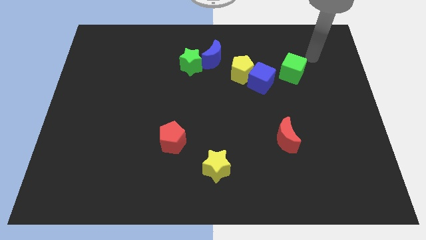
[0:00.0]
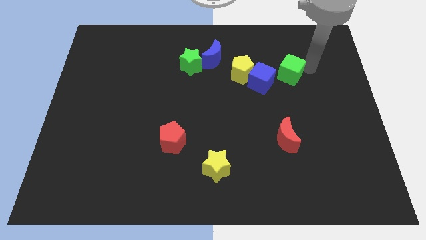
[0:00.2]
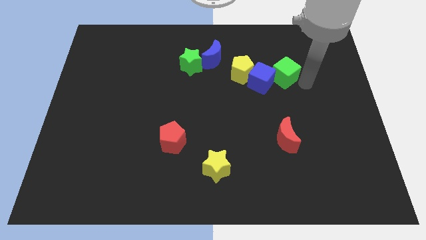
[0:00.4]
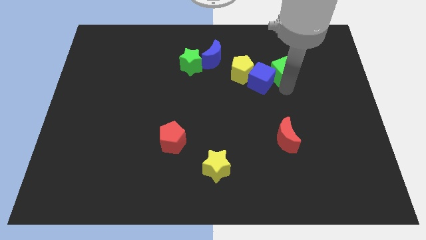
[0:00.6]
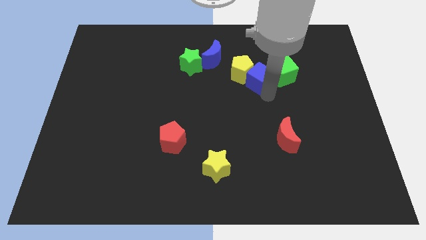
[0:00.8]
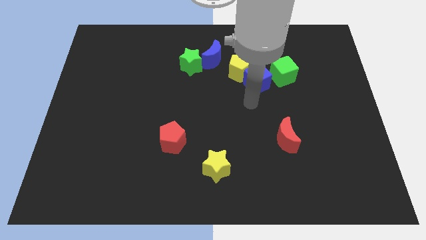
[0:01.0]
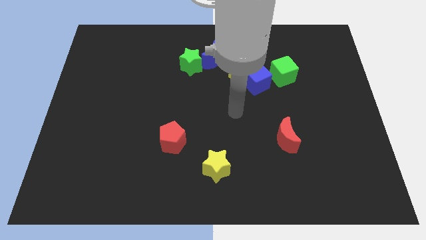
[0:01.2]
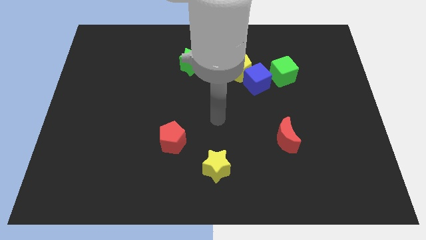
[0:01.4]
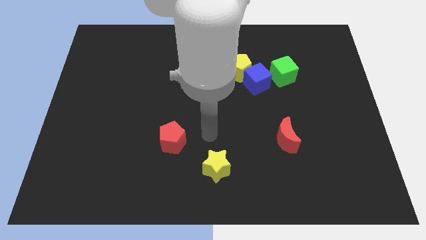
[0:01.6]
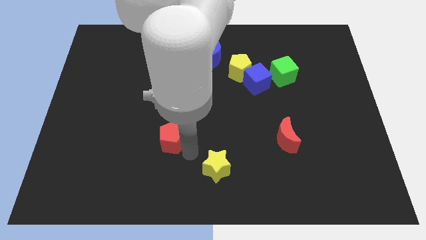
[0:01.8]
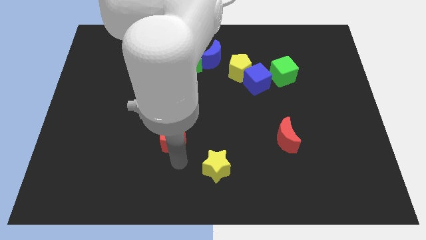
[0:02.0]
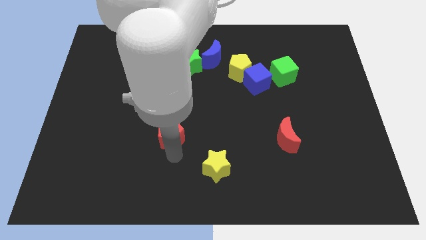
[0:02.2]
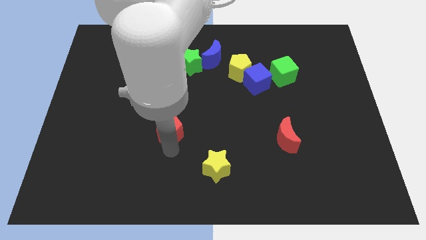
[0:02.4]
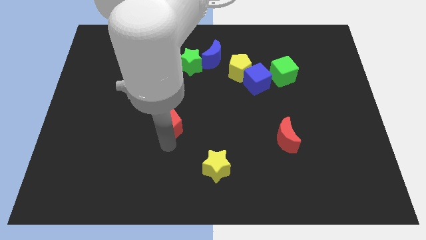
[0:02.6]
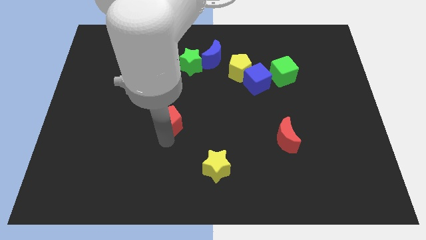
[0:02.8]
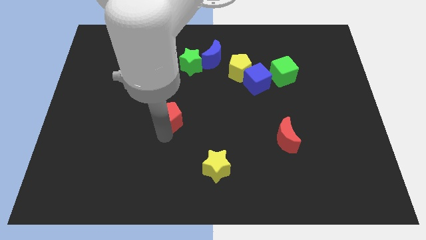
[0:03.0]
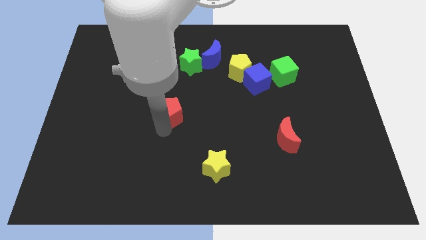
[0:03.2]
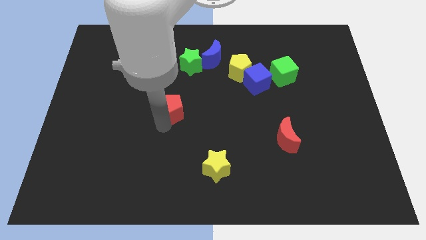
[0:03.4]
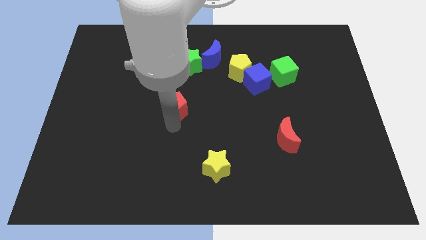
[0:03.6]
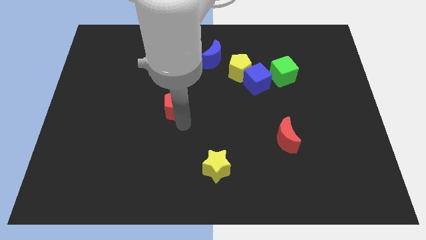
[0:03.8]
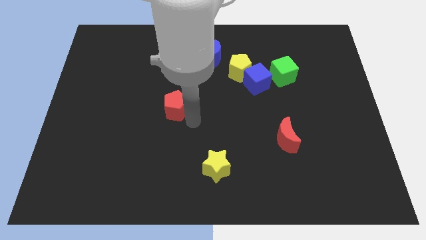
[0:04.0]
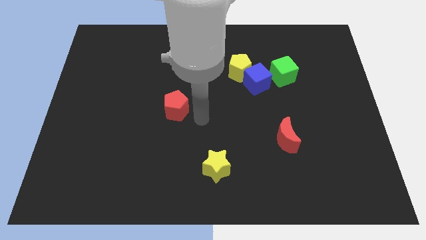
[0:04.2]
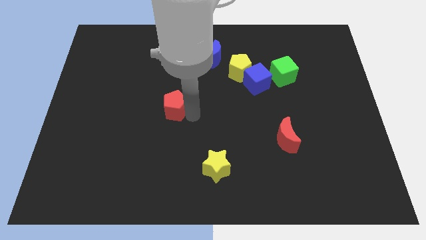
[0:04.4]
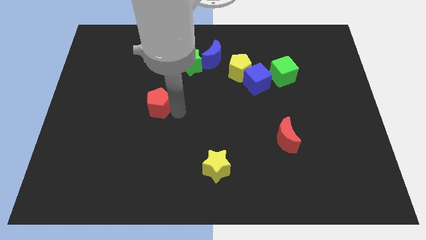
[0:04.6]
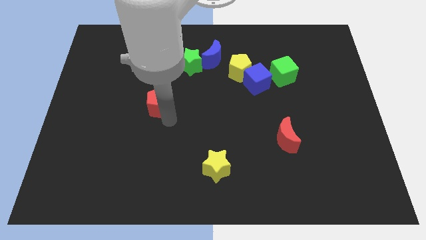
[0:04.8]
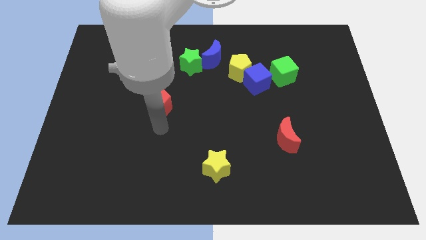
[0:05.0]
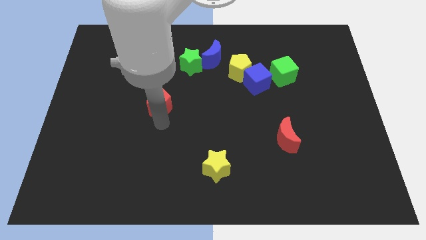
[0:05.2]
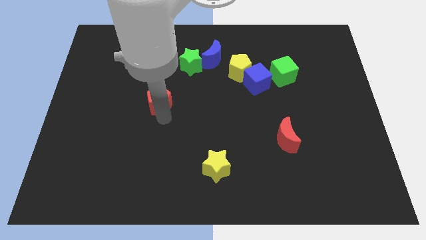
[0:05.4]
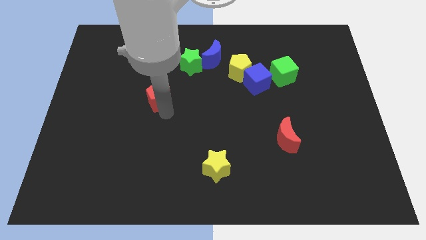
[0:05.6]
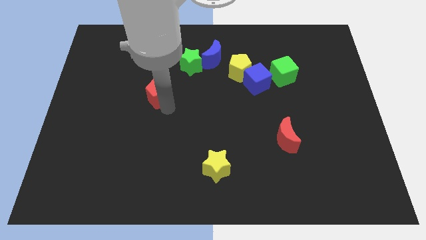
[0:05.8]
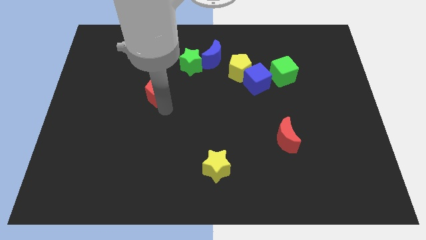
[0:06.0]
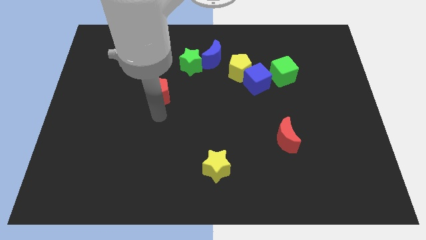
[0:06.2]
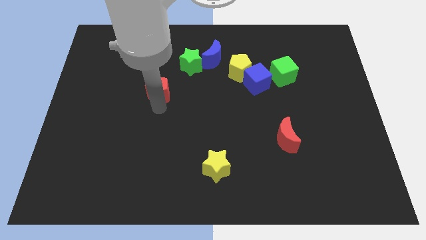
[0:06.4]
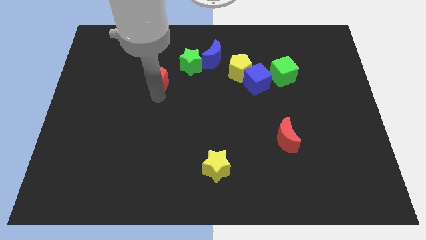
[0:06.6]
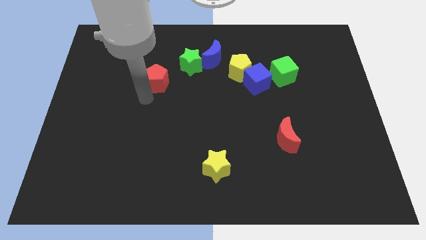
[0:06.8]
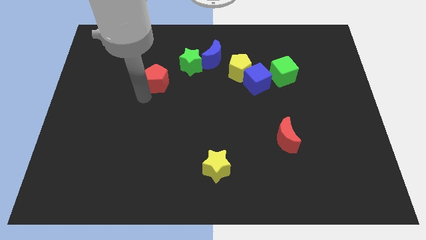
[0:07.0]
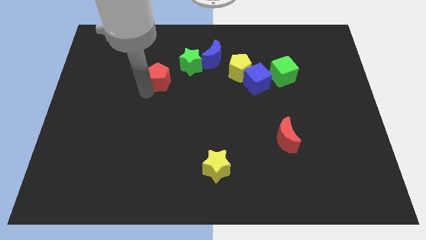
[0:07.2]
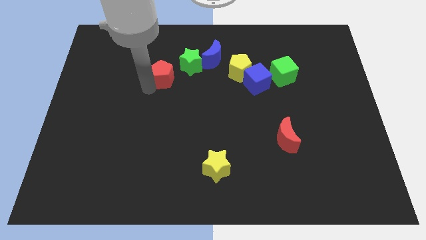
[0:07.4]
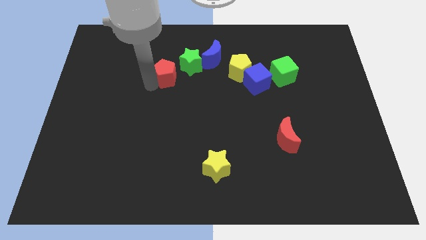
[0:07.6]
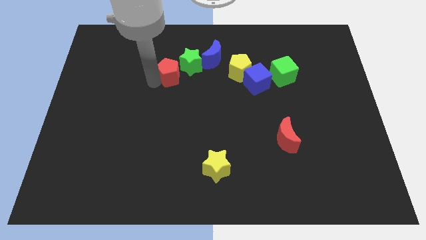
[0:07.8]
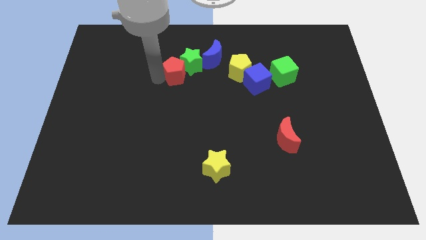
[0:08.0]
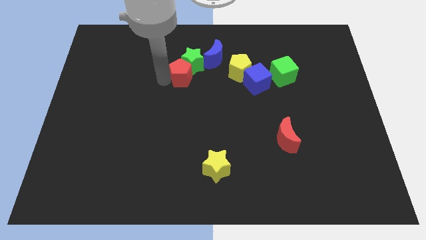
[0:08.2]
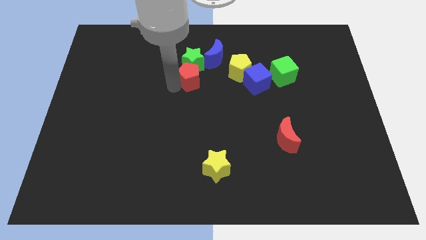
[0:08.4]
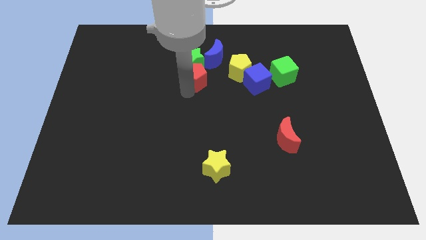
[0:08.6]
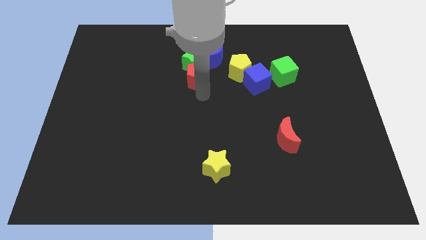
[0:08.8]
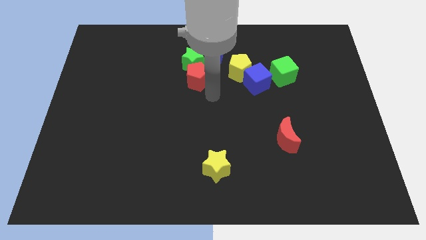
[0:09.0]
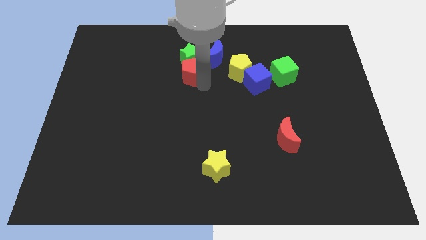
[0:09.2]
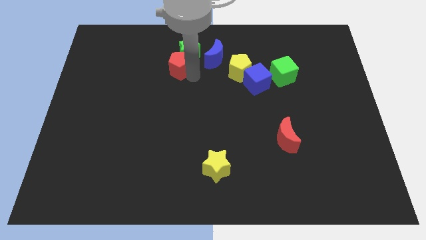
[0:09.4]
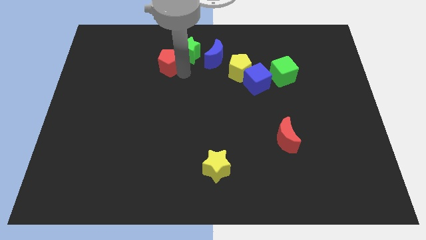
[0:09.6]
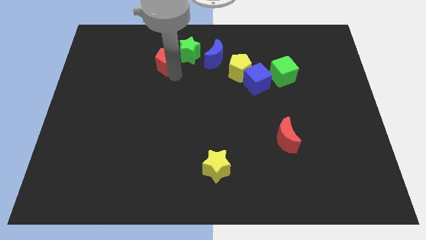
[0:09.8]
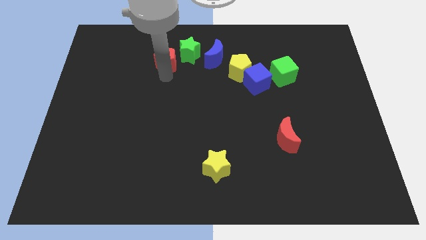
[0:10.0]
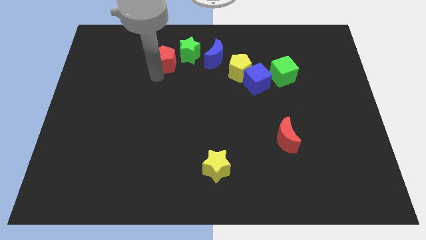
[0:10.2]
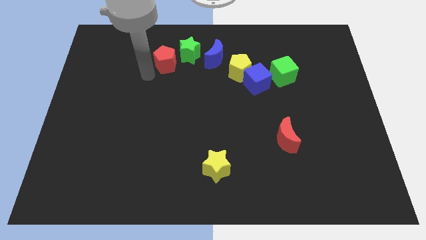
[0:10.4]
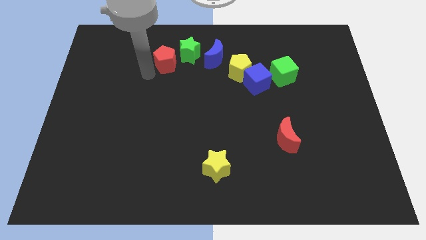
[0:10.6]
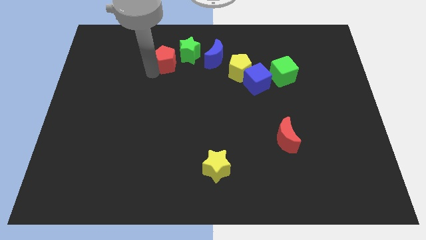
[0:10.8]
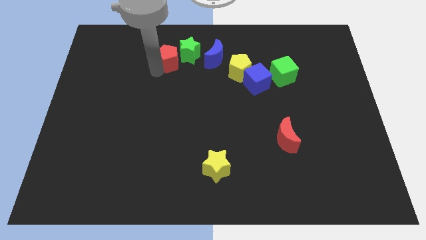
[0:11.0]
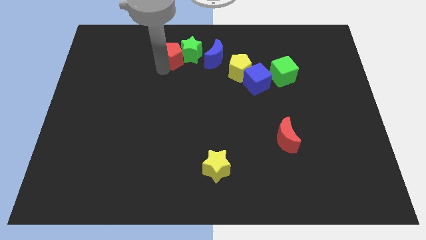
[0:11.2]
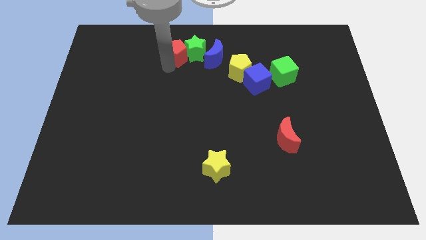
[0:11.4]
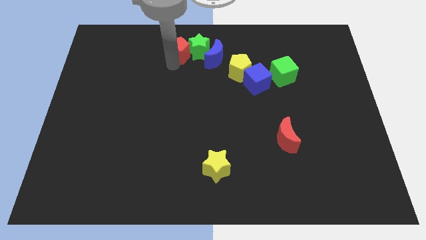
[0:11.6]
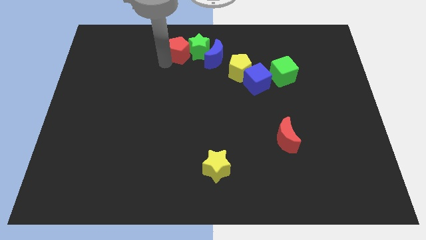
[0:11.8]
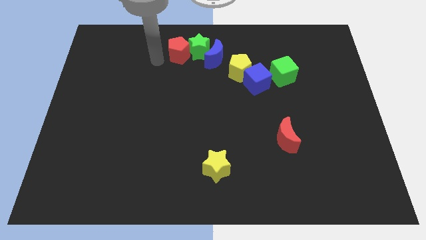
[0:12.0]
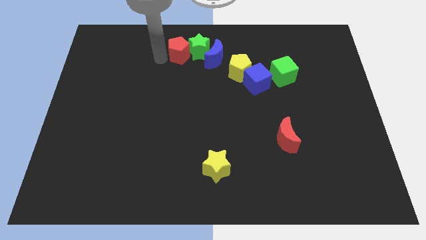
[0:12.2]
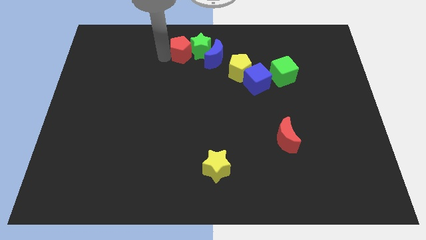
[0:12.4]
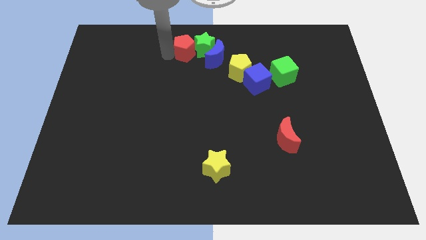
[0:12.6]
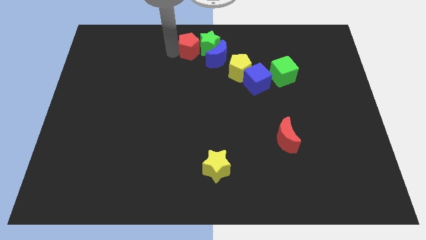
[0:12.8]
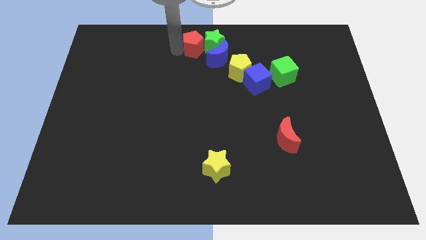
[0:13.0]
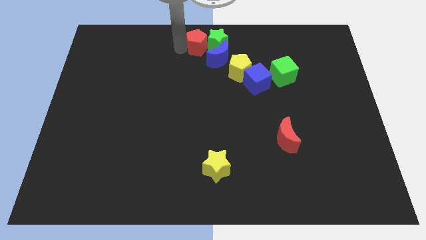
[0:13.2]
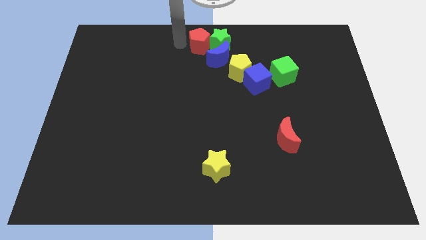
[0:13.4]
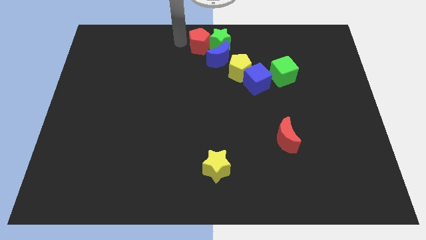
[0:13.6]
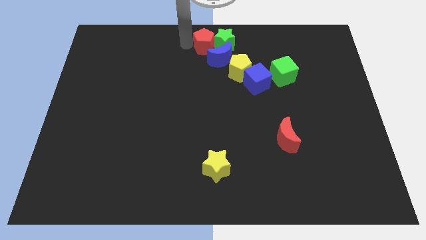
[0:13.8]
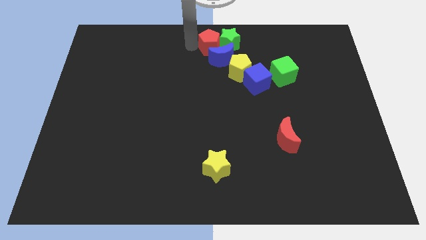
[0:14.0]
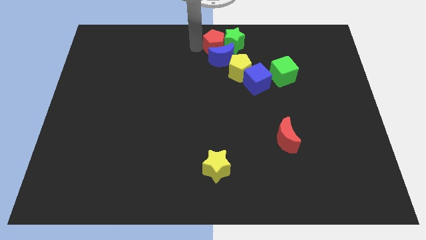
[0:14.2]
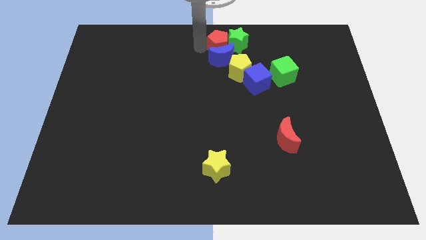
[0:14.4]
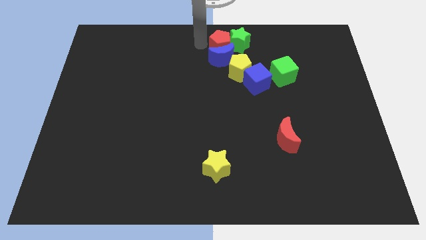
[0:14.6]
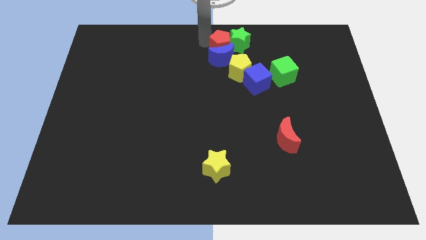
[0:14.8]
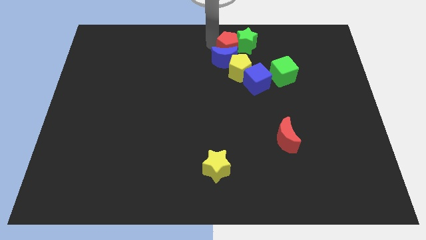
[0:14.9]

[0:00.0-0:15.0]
move the red pentagon diagonally upwards and to the right

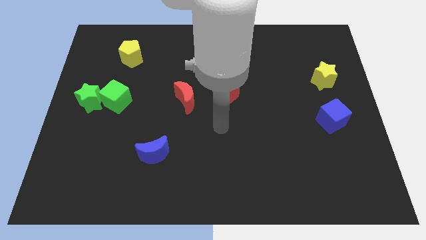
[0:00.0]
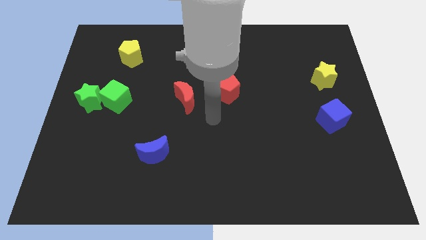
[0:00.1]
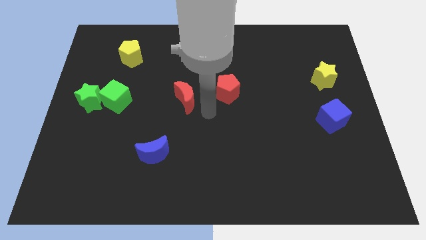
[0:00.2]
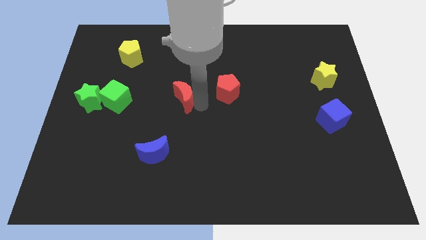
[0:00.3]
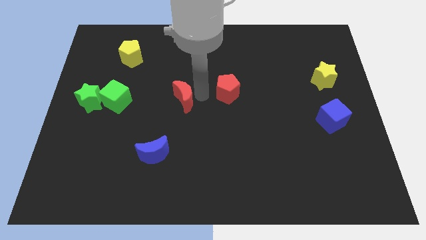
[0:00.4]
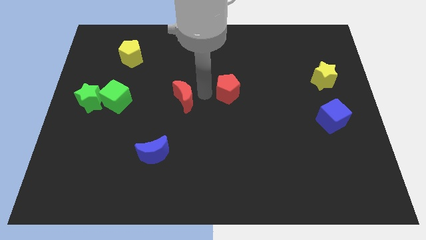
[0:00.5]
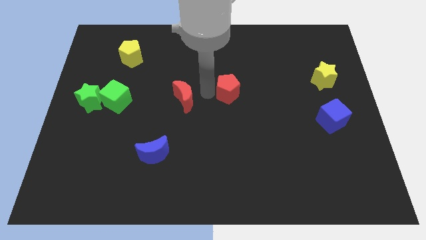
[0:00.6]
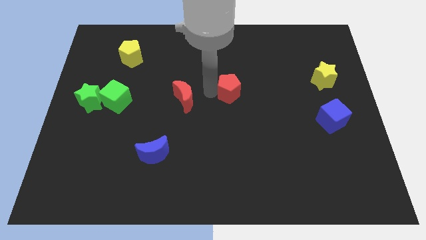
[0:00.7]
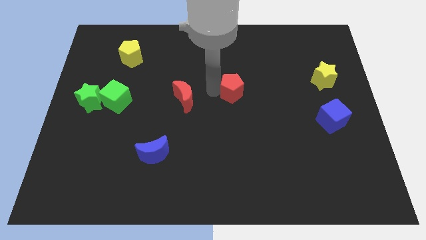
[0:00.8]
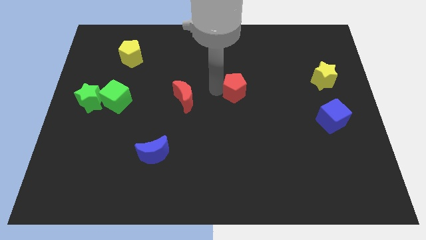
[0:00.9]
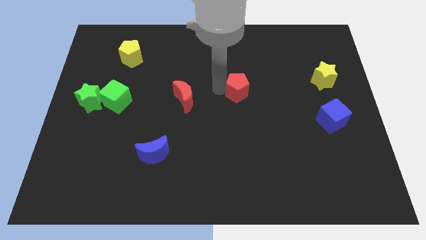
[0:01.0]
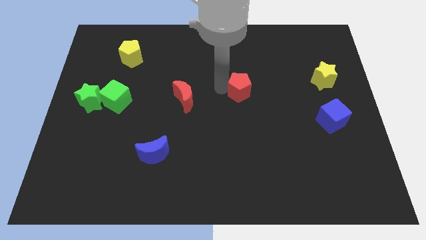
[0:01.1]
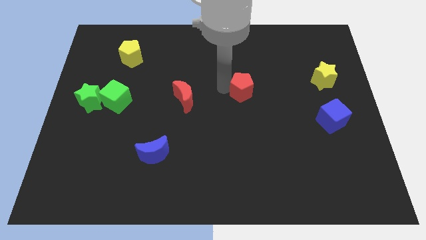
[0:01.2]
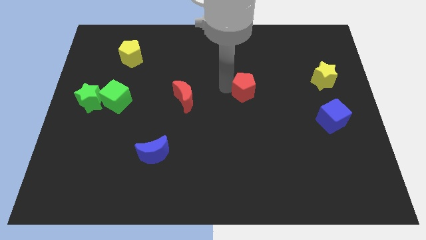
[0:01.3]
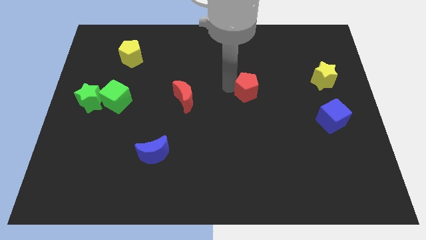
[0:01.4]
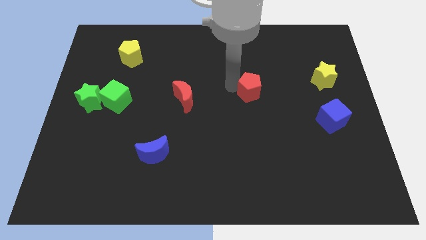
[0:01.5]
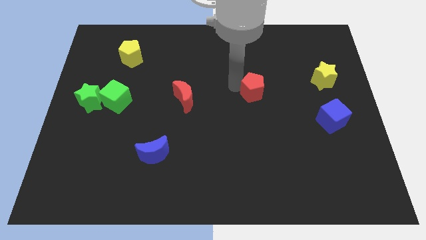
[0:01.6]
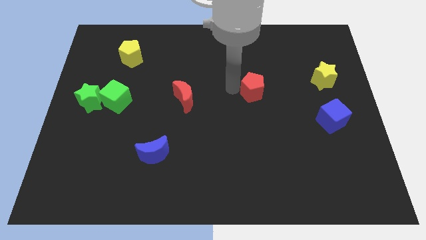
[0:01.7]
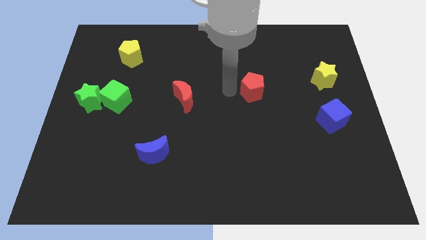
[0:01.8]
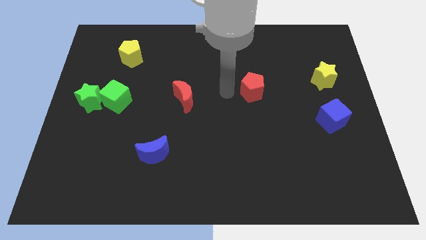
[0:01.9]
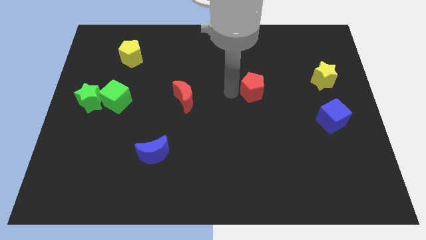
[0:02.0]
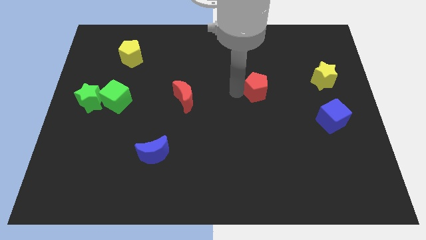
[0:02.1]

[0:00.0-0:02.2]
move the red pentagon to the right slightly
